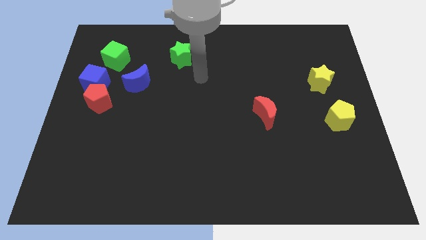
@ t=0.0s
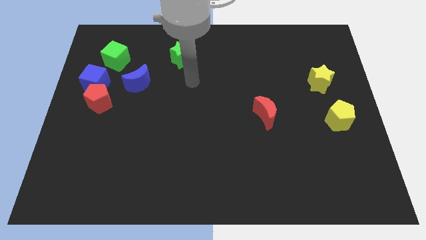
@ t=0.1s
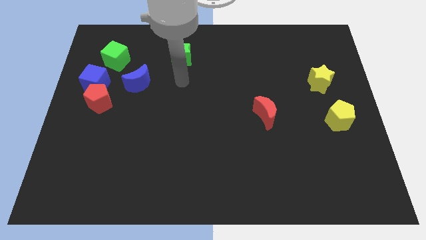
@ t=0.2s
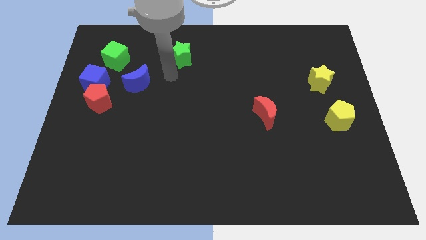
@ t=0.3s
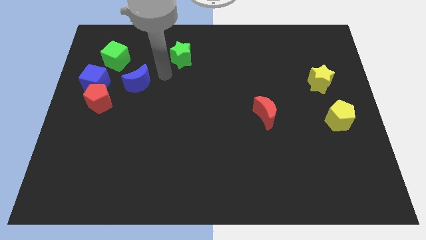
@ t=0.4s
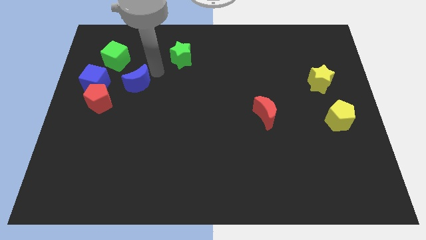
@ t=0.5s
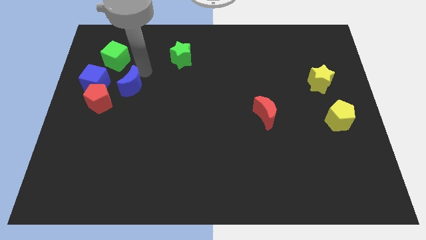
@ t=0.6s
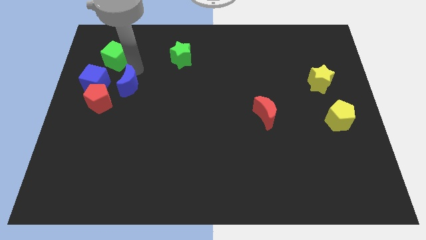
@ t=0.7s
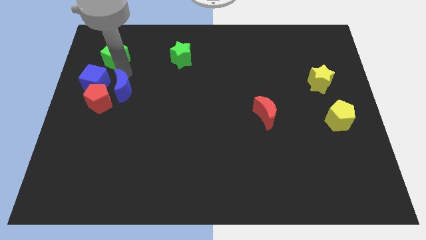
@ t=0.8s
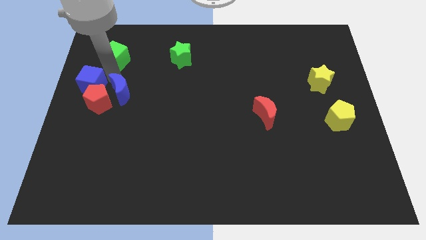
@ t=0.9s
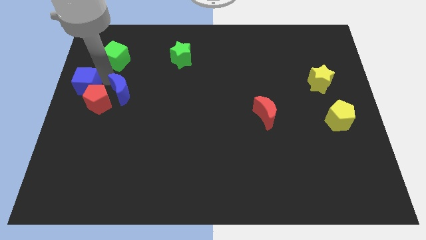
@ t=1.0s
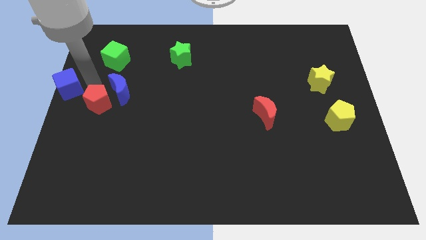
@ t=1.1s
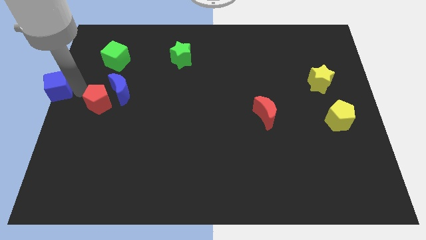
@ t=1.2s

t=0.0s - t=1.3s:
move the red pentagon away from the blue cube

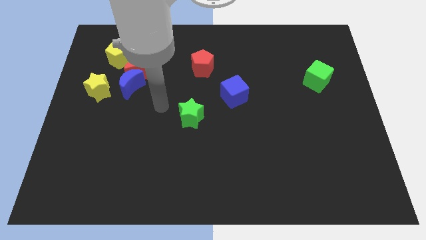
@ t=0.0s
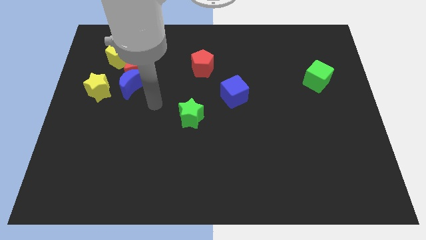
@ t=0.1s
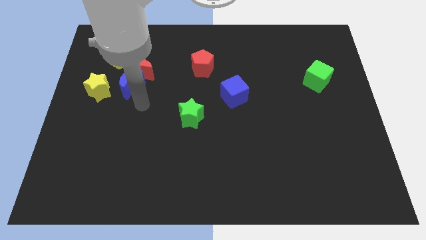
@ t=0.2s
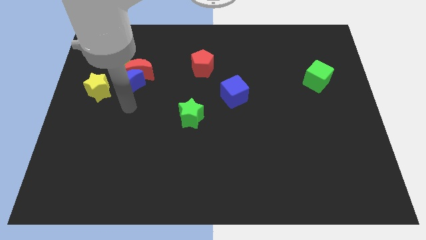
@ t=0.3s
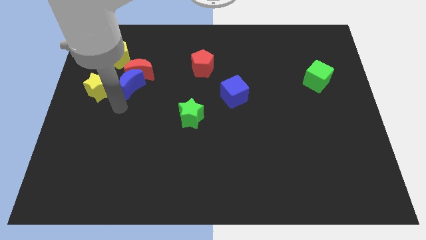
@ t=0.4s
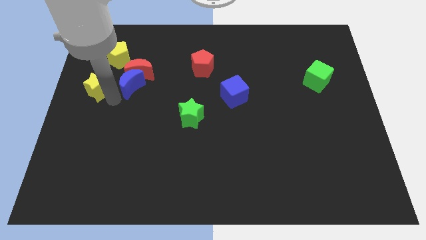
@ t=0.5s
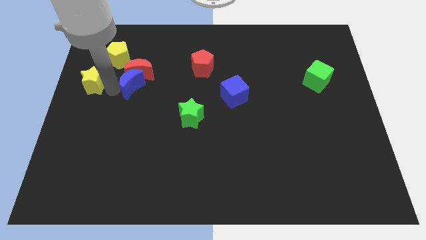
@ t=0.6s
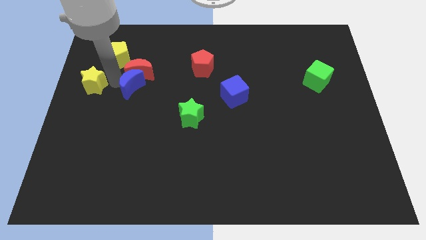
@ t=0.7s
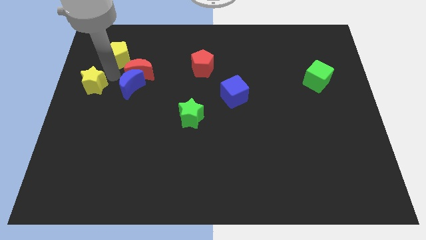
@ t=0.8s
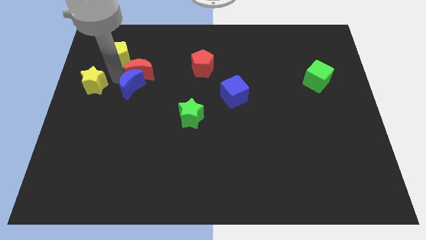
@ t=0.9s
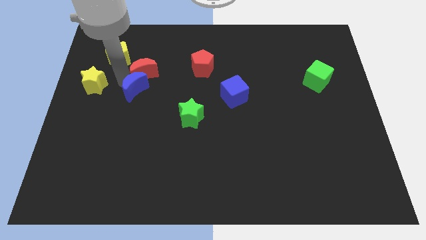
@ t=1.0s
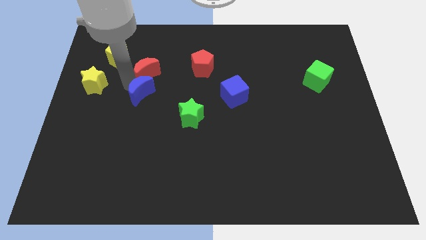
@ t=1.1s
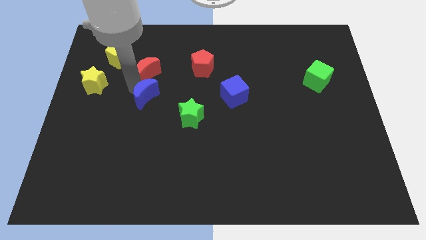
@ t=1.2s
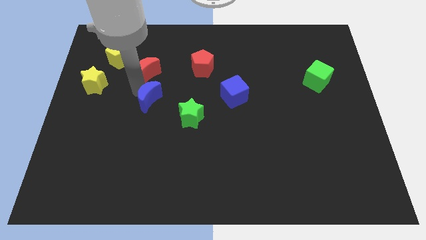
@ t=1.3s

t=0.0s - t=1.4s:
move the blue moon away from the red moon and yellow star

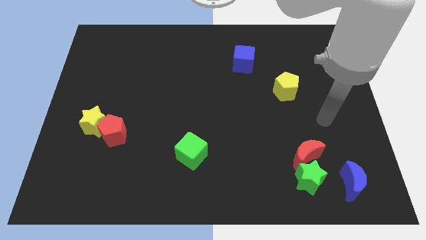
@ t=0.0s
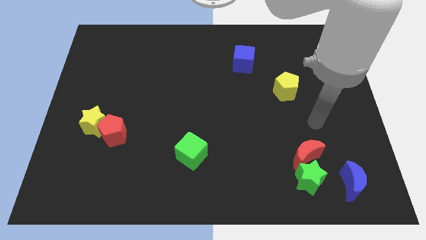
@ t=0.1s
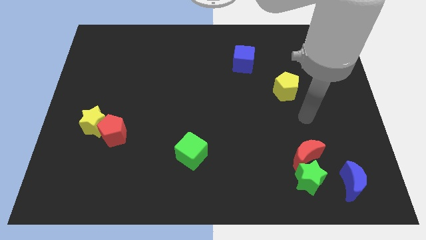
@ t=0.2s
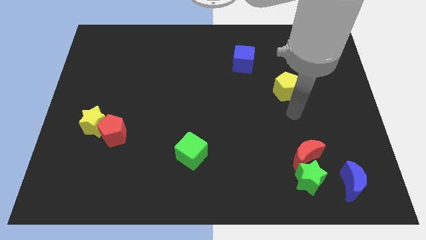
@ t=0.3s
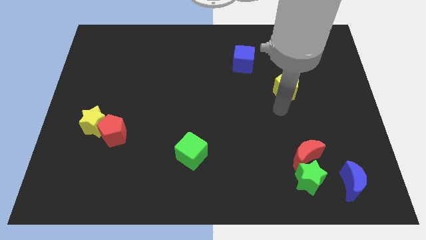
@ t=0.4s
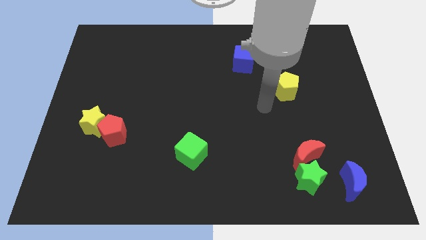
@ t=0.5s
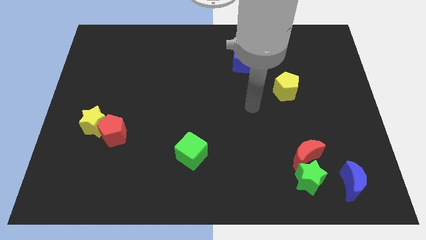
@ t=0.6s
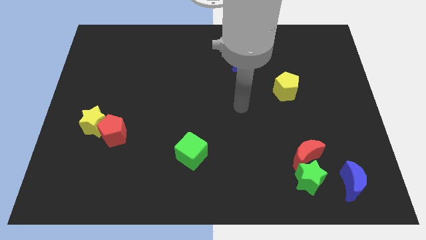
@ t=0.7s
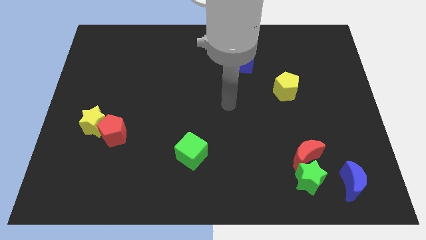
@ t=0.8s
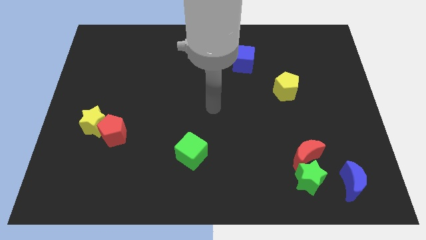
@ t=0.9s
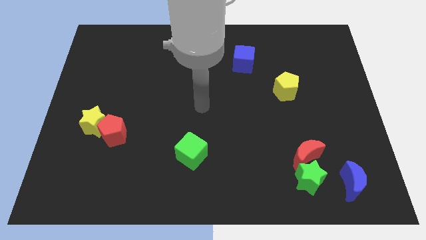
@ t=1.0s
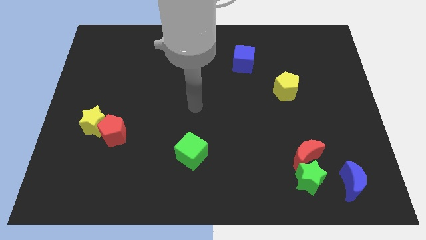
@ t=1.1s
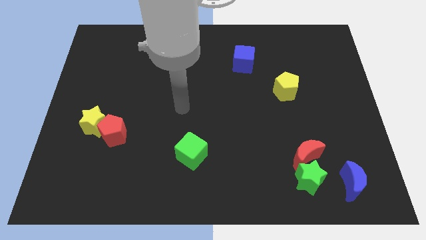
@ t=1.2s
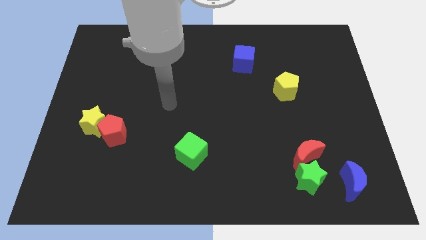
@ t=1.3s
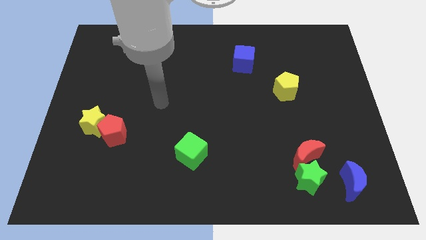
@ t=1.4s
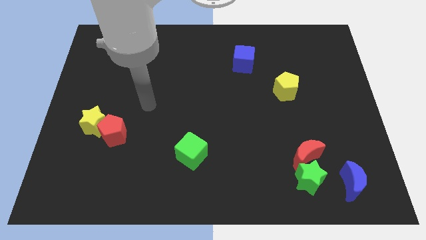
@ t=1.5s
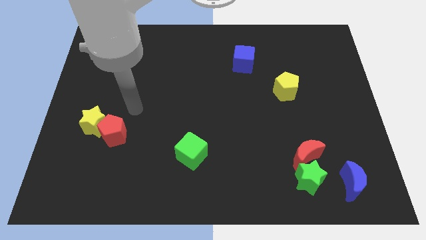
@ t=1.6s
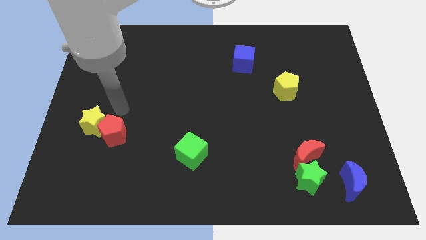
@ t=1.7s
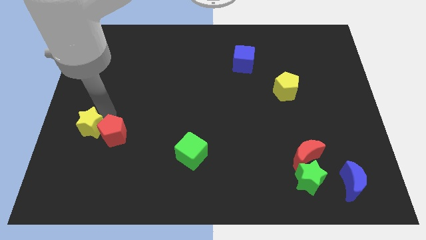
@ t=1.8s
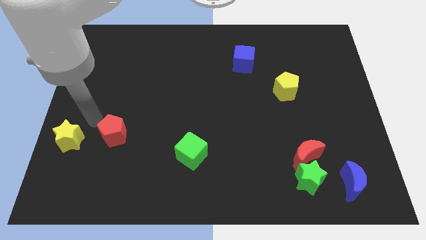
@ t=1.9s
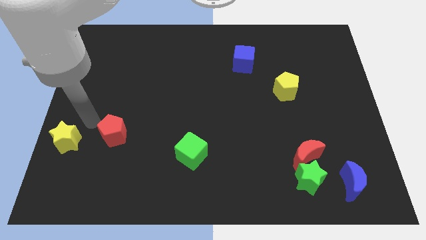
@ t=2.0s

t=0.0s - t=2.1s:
separate the red pentagon from the yellow star

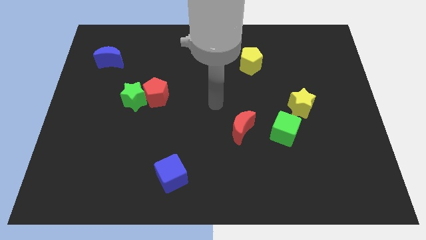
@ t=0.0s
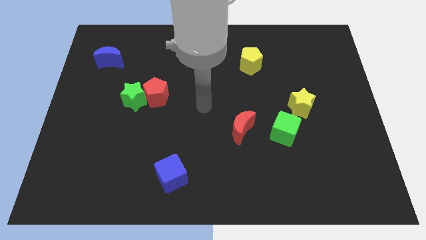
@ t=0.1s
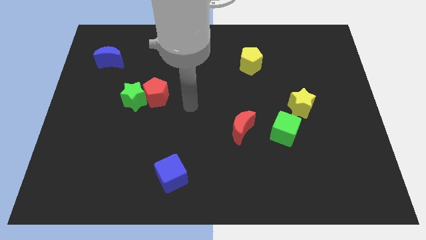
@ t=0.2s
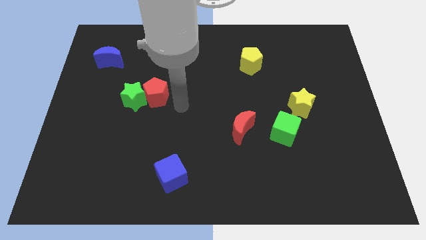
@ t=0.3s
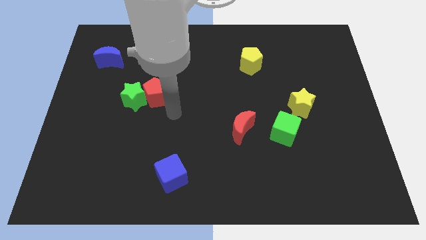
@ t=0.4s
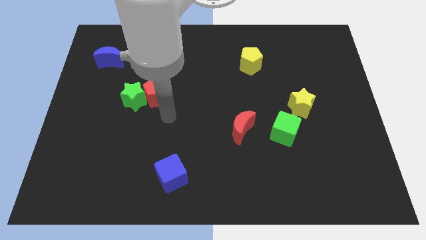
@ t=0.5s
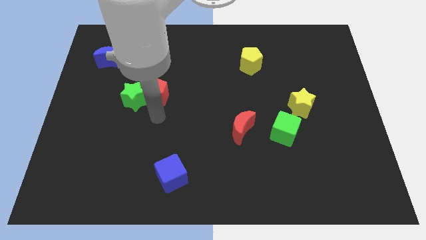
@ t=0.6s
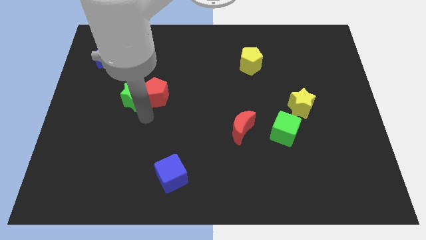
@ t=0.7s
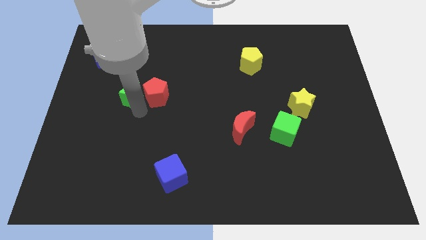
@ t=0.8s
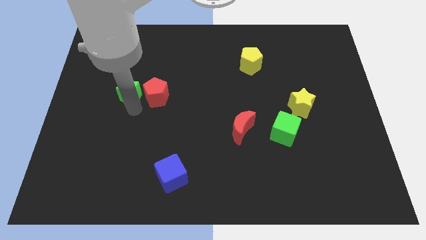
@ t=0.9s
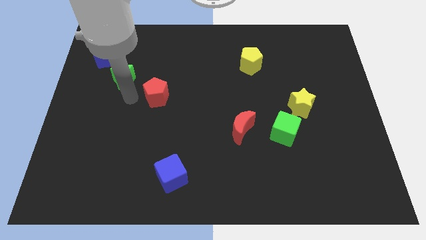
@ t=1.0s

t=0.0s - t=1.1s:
pull the red pentagon apart from the green star

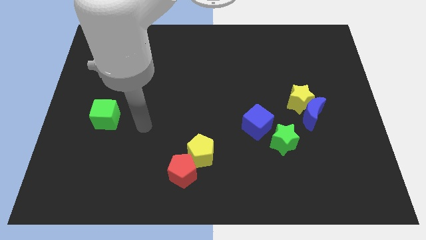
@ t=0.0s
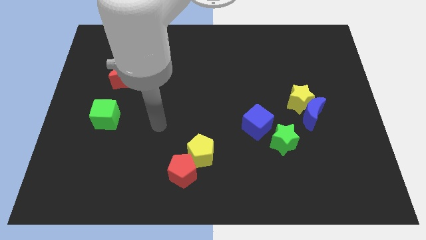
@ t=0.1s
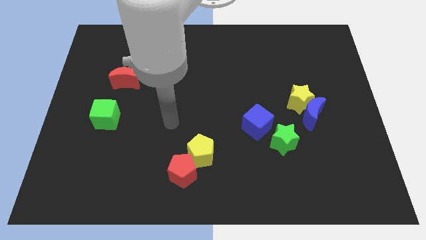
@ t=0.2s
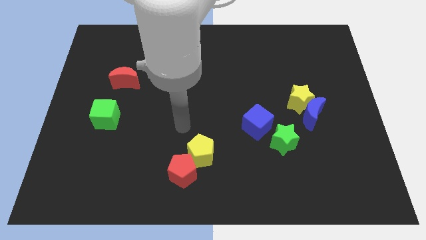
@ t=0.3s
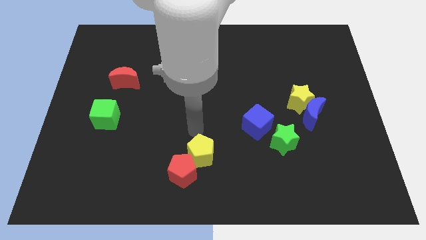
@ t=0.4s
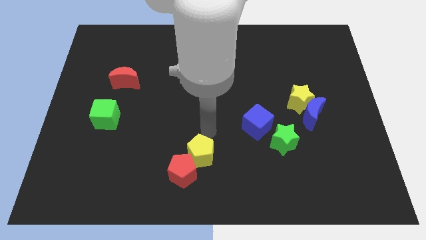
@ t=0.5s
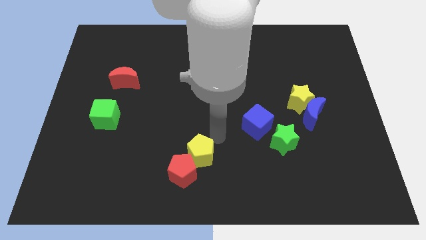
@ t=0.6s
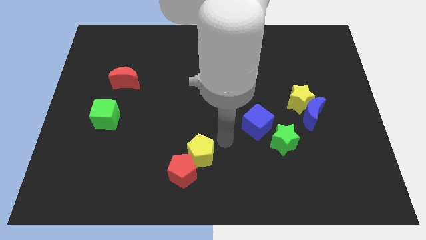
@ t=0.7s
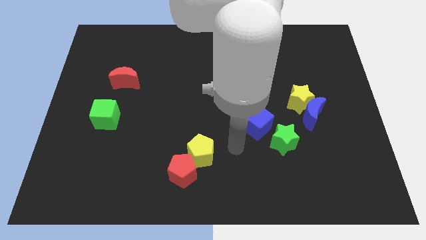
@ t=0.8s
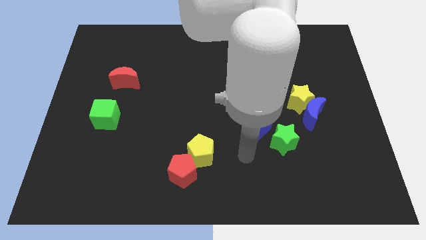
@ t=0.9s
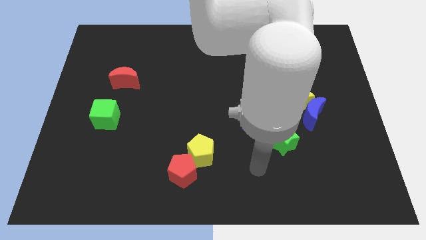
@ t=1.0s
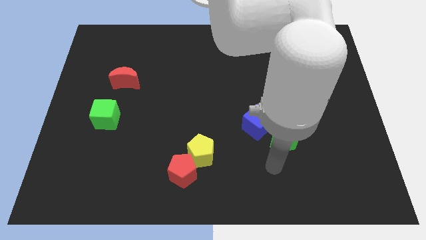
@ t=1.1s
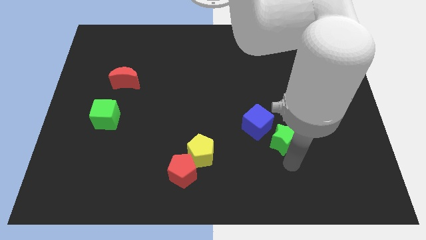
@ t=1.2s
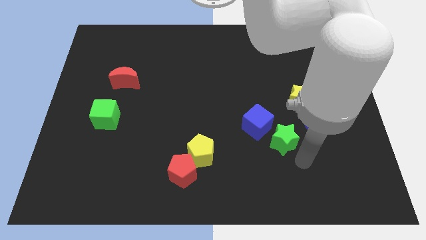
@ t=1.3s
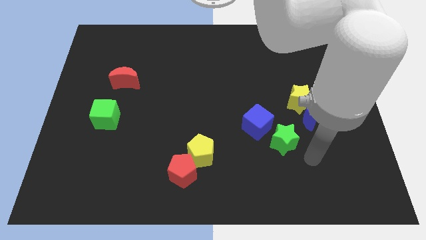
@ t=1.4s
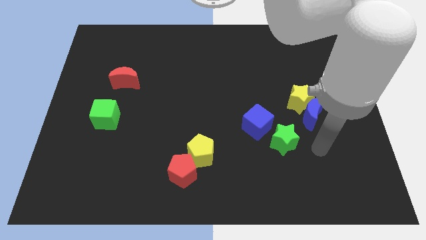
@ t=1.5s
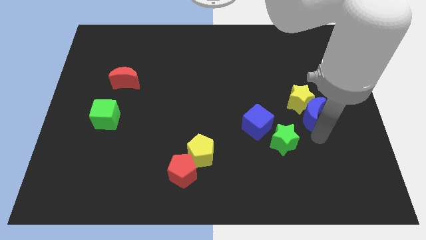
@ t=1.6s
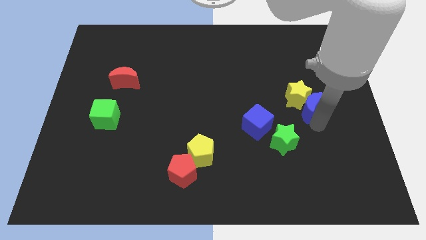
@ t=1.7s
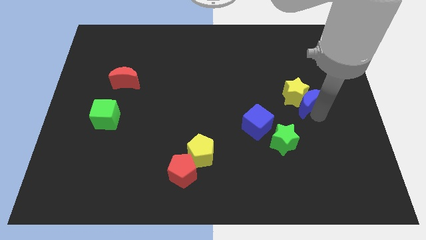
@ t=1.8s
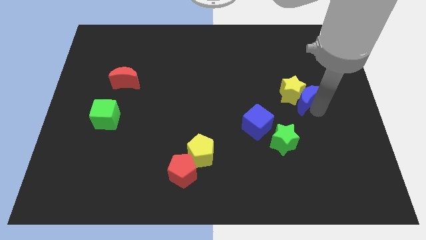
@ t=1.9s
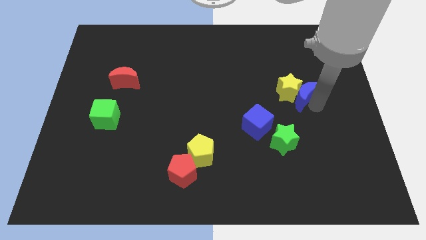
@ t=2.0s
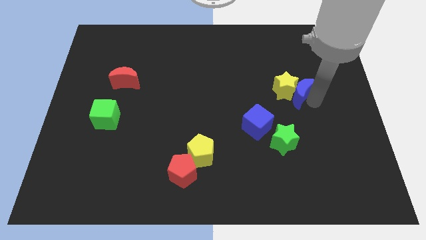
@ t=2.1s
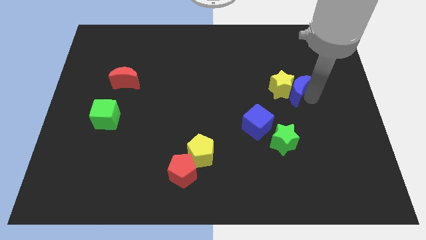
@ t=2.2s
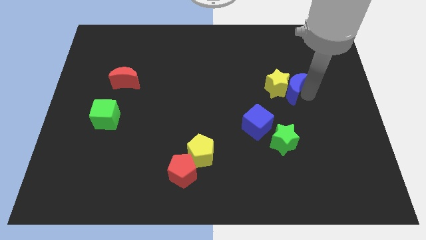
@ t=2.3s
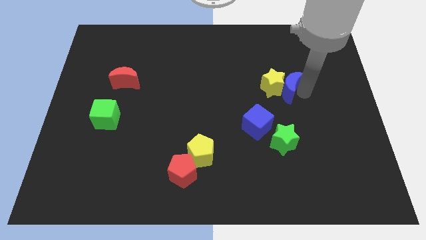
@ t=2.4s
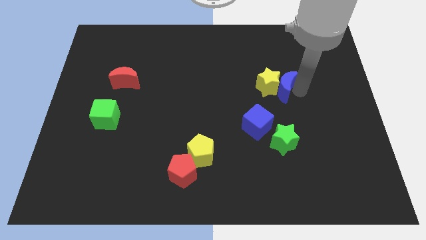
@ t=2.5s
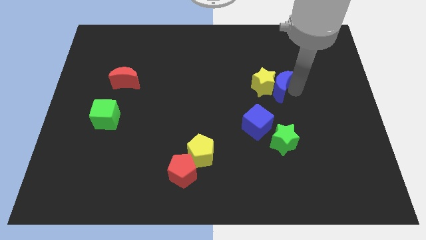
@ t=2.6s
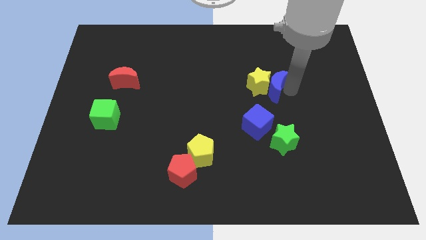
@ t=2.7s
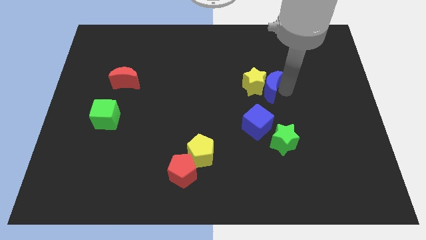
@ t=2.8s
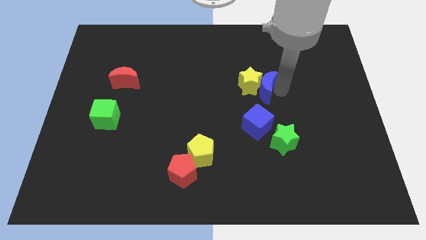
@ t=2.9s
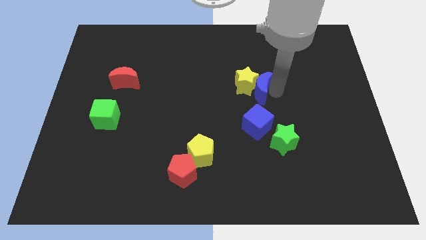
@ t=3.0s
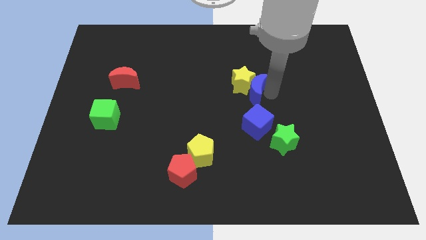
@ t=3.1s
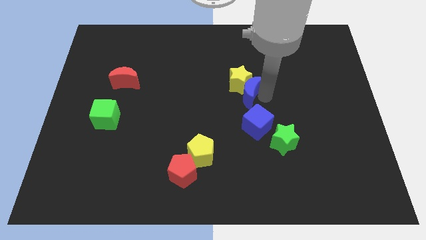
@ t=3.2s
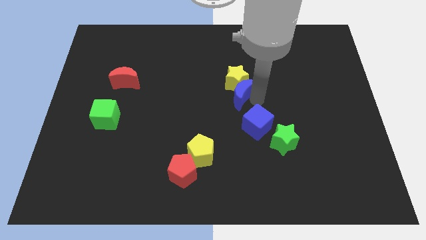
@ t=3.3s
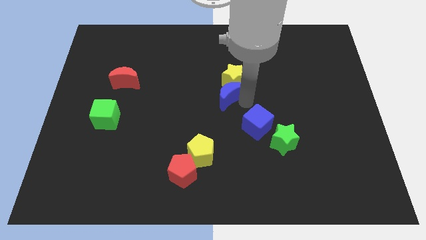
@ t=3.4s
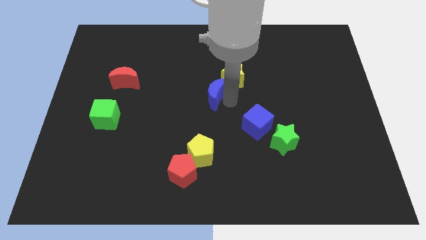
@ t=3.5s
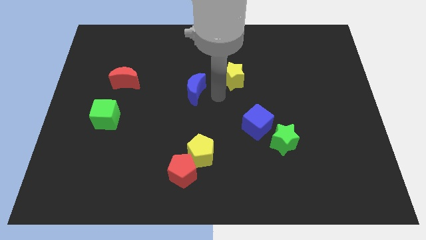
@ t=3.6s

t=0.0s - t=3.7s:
pull the yellow star apart from the blue moon
